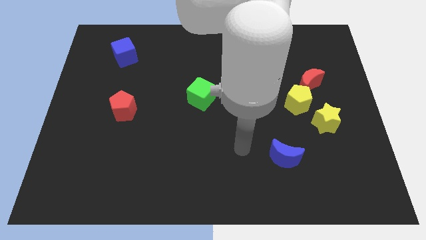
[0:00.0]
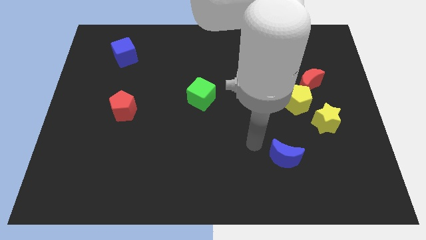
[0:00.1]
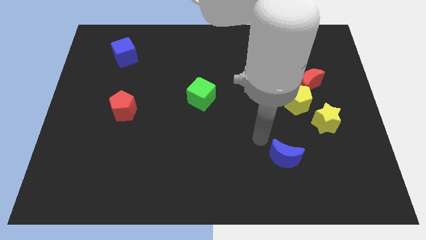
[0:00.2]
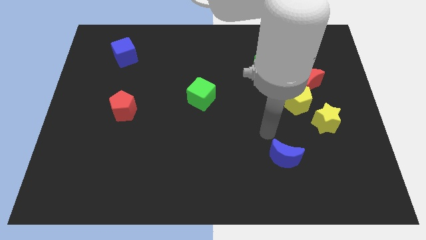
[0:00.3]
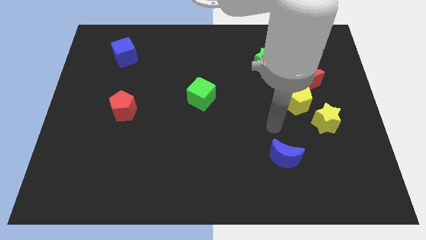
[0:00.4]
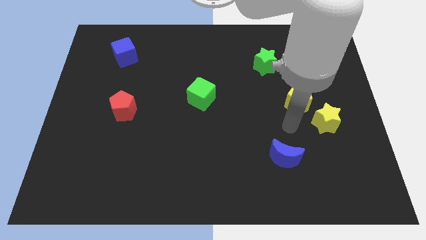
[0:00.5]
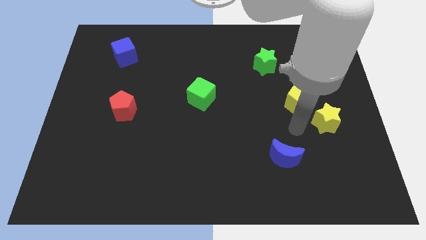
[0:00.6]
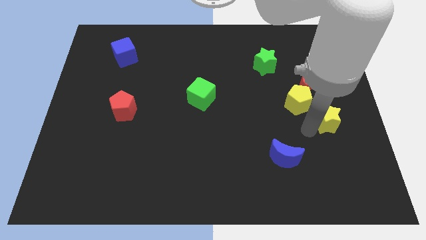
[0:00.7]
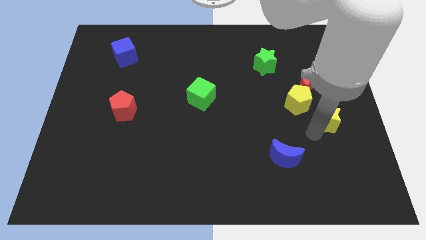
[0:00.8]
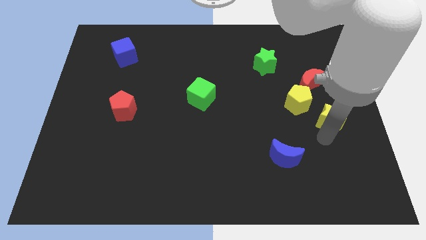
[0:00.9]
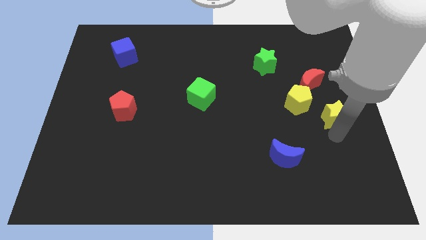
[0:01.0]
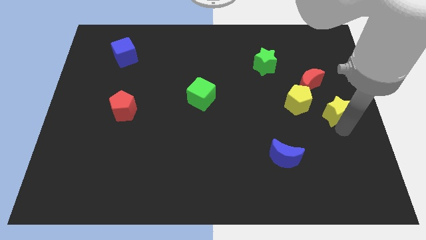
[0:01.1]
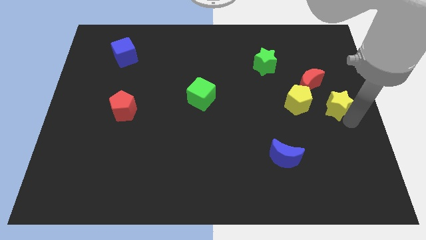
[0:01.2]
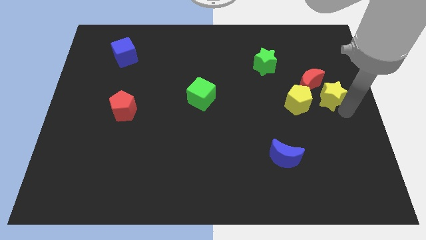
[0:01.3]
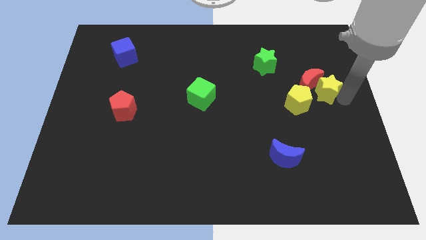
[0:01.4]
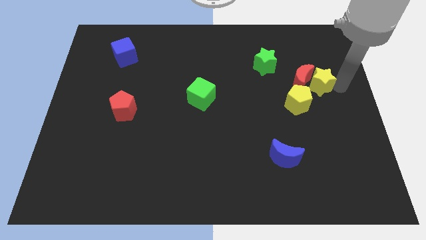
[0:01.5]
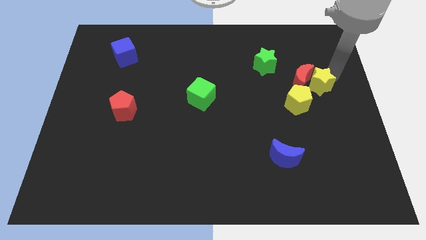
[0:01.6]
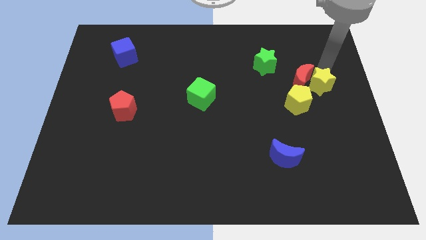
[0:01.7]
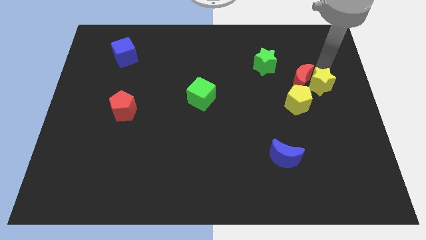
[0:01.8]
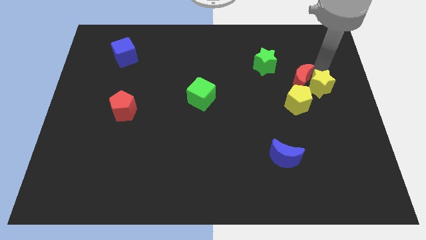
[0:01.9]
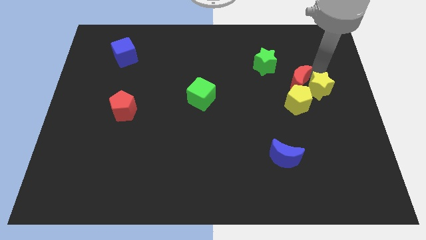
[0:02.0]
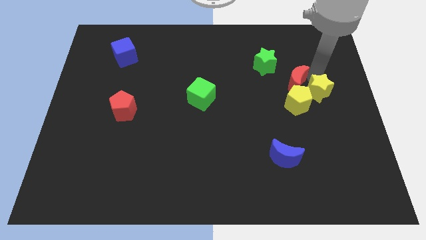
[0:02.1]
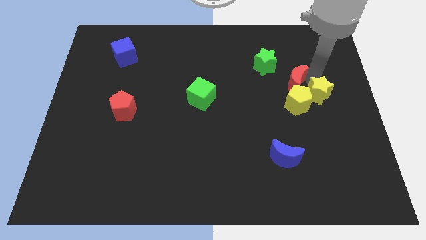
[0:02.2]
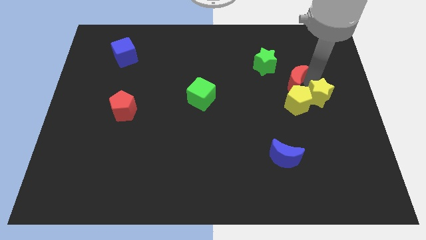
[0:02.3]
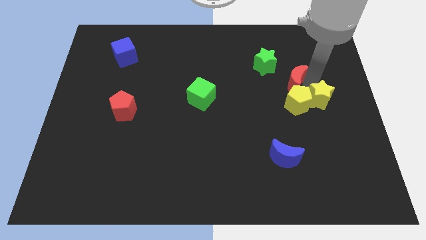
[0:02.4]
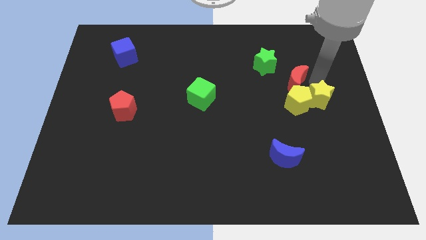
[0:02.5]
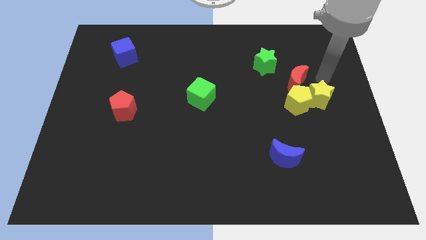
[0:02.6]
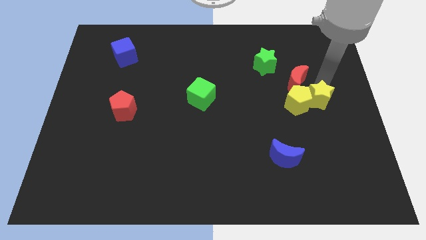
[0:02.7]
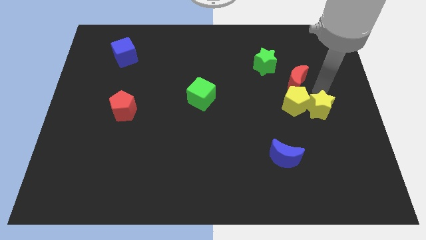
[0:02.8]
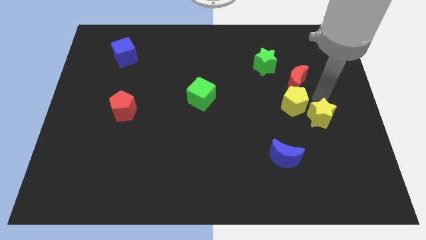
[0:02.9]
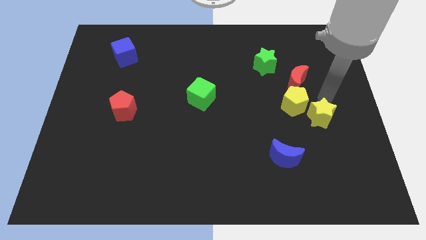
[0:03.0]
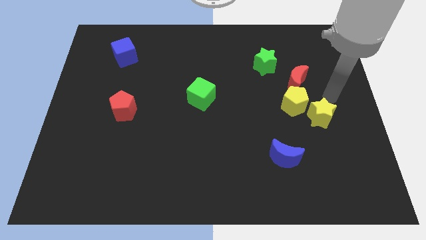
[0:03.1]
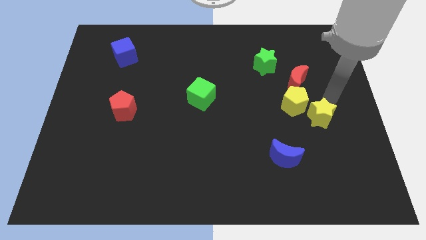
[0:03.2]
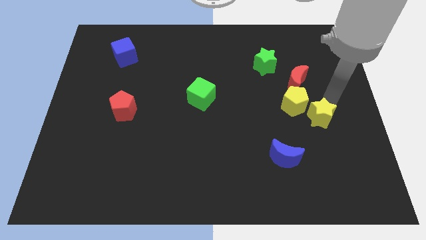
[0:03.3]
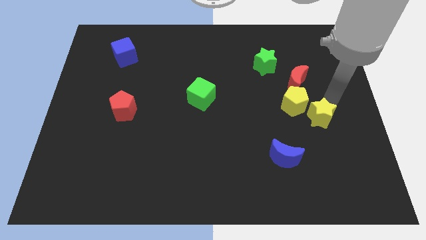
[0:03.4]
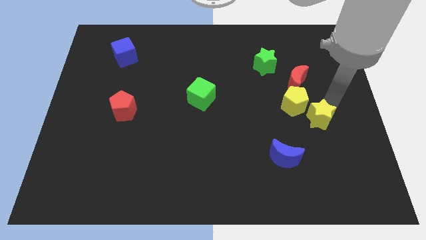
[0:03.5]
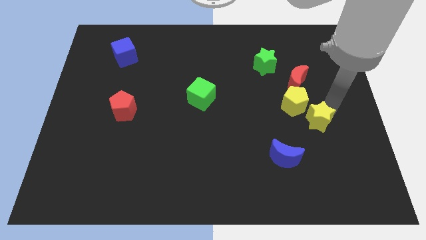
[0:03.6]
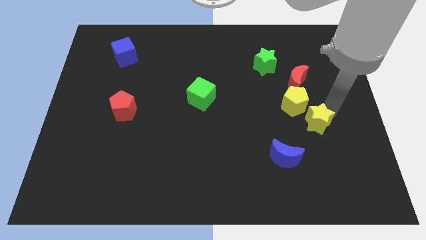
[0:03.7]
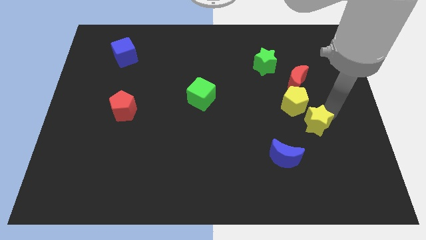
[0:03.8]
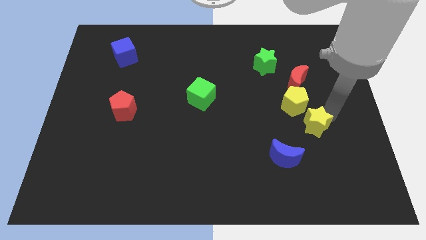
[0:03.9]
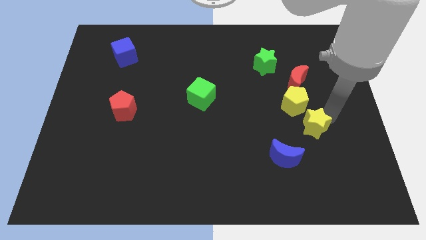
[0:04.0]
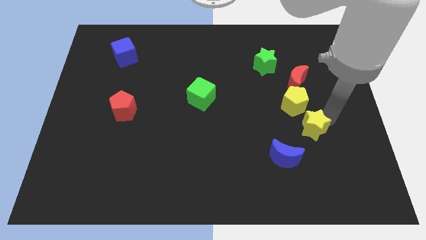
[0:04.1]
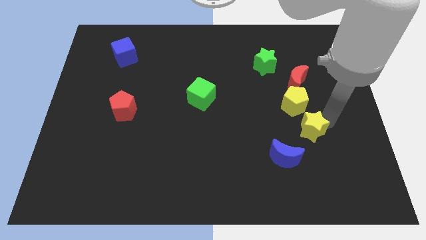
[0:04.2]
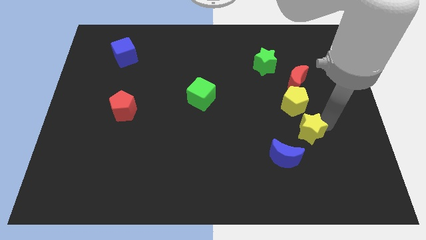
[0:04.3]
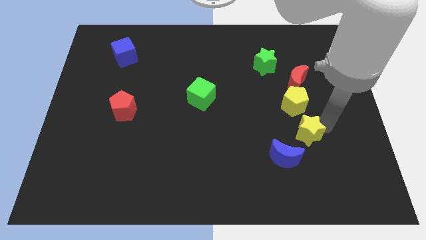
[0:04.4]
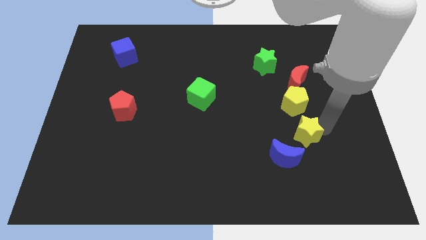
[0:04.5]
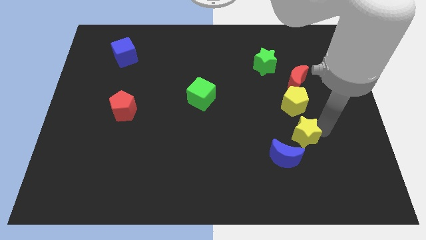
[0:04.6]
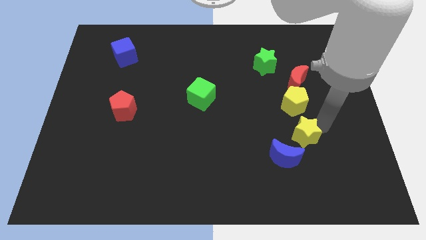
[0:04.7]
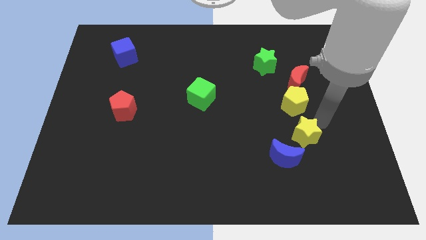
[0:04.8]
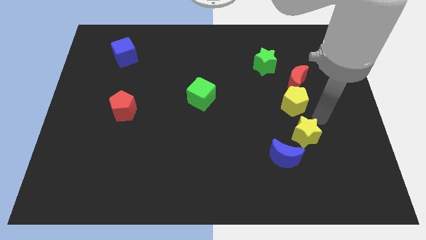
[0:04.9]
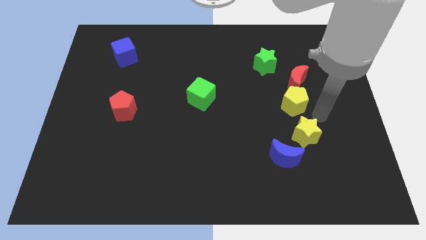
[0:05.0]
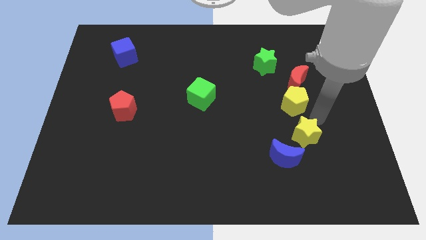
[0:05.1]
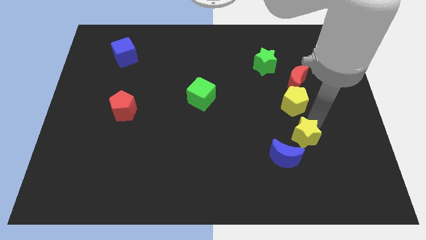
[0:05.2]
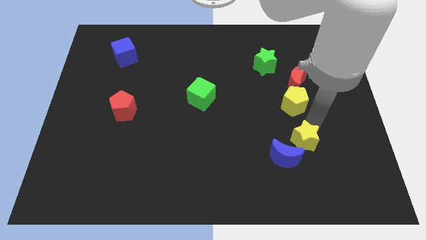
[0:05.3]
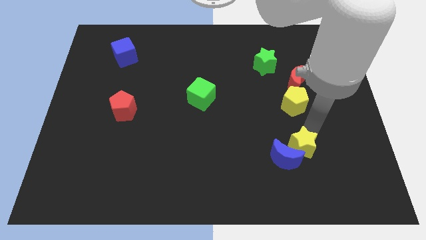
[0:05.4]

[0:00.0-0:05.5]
put the yellow star to the blue moon
